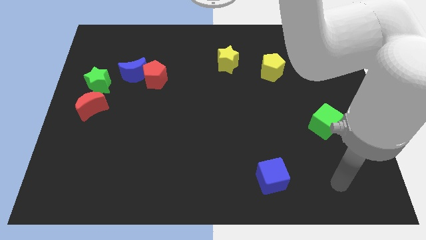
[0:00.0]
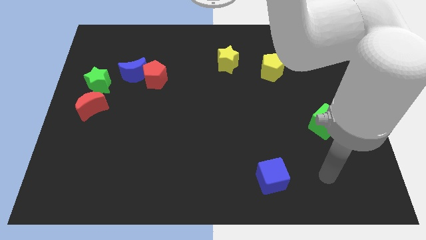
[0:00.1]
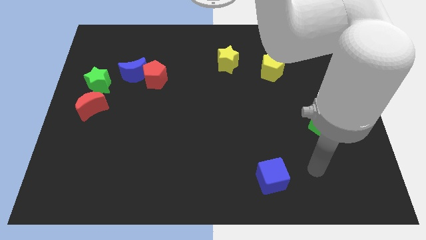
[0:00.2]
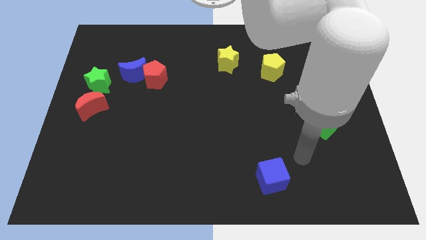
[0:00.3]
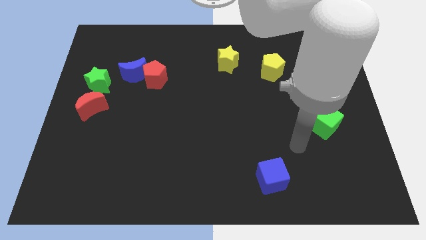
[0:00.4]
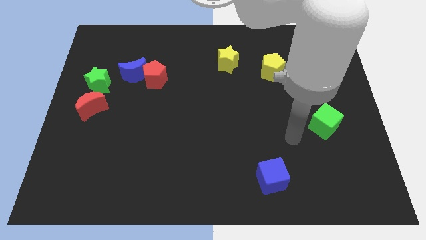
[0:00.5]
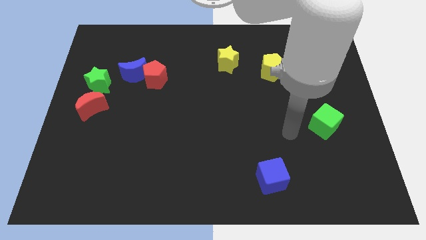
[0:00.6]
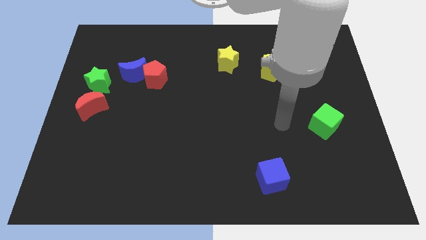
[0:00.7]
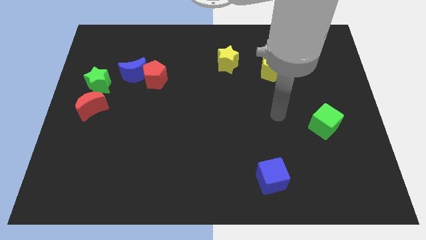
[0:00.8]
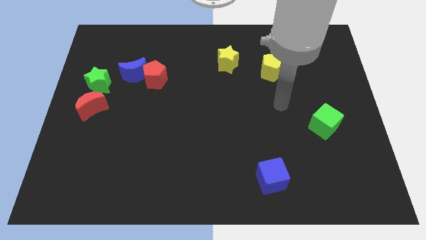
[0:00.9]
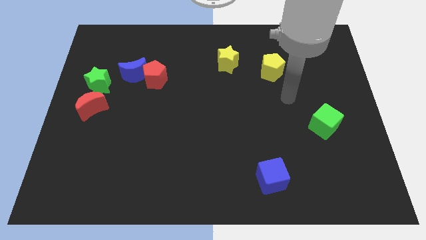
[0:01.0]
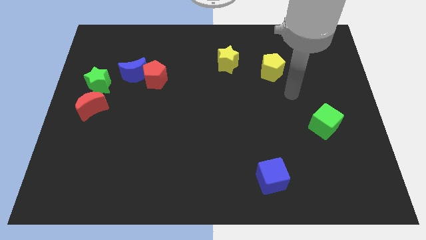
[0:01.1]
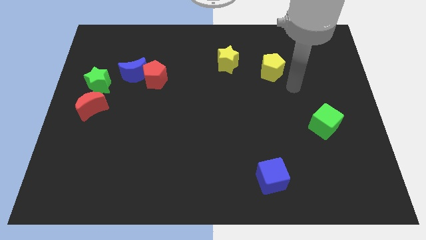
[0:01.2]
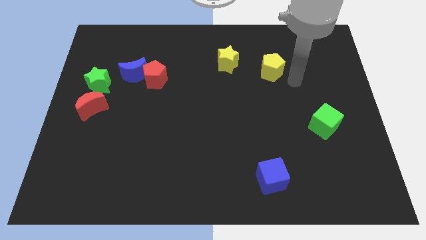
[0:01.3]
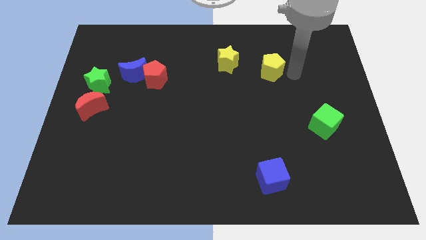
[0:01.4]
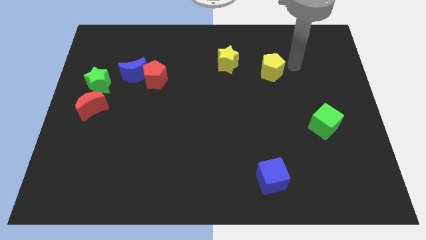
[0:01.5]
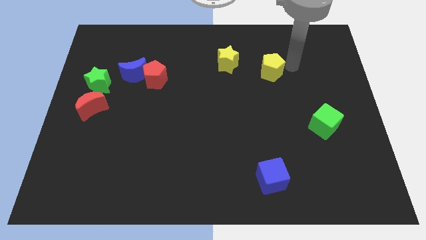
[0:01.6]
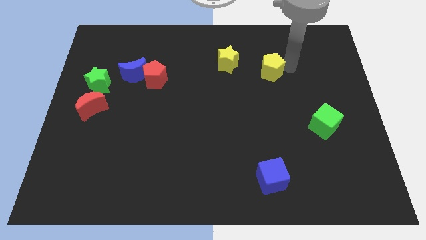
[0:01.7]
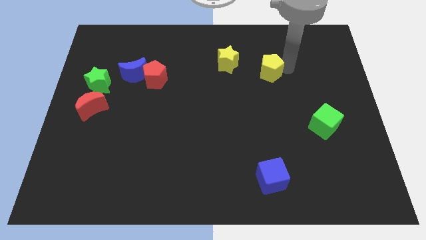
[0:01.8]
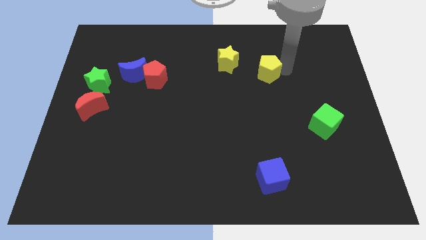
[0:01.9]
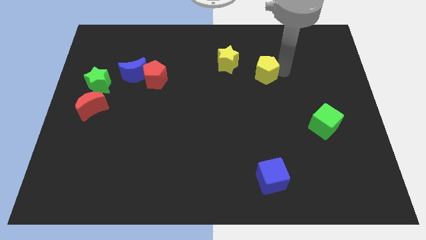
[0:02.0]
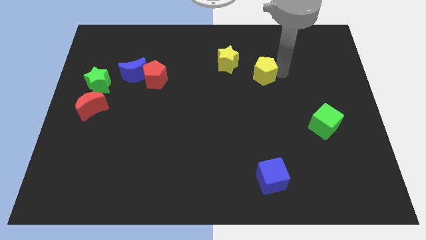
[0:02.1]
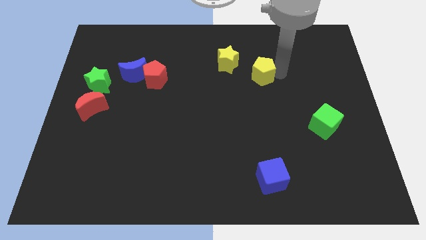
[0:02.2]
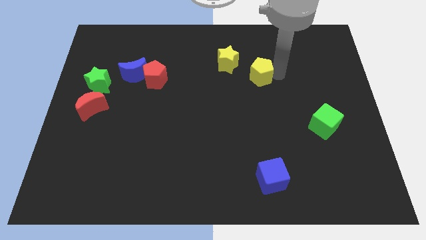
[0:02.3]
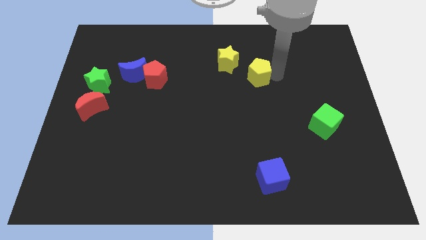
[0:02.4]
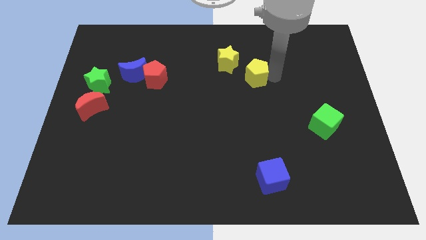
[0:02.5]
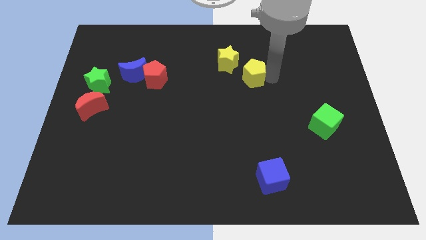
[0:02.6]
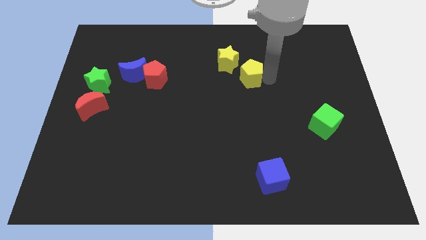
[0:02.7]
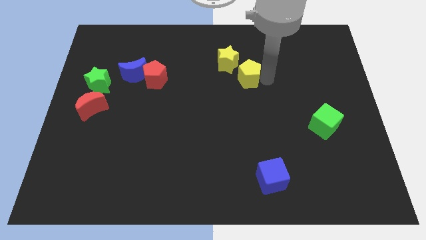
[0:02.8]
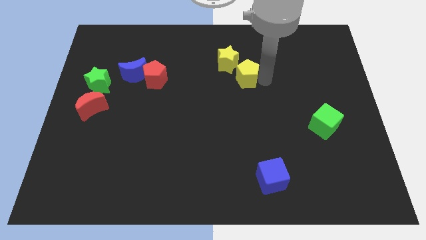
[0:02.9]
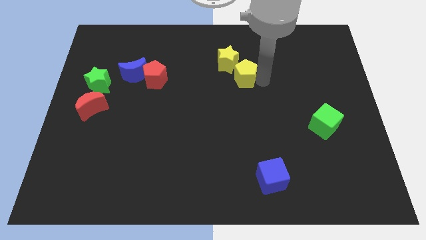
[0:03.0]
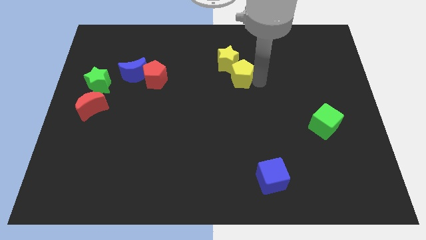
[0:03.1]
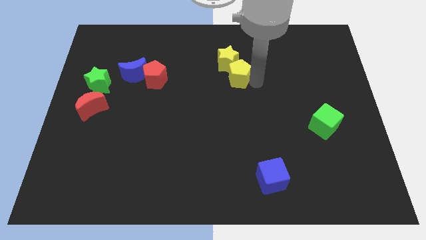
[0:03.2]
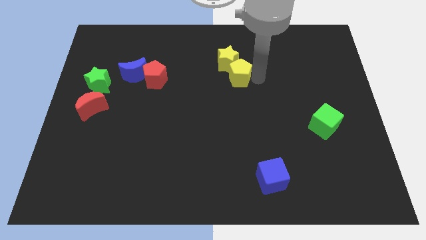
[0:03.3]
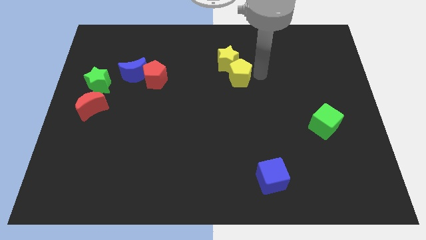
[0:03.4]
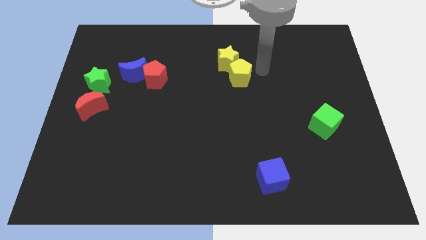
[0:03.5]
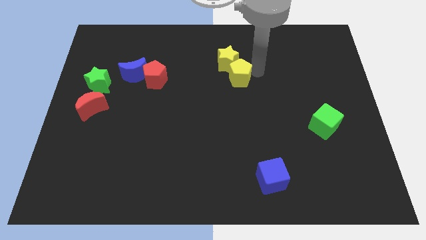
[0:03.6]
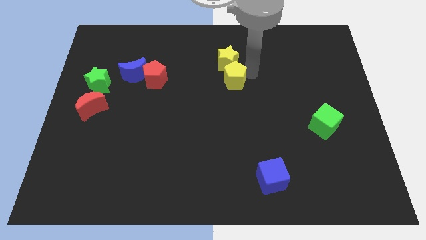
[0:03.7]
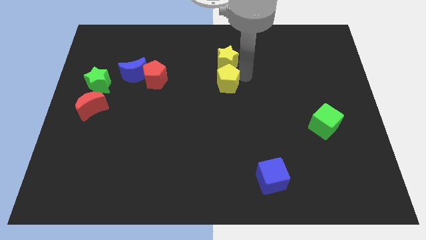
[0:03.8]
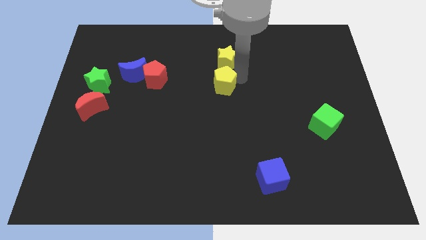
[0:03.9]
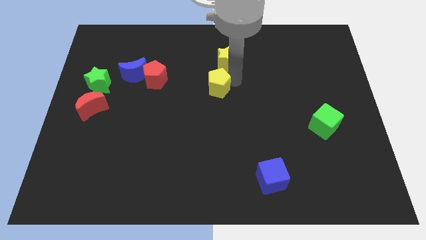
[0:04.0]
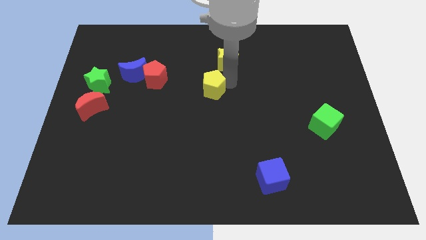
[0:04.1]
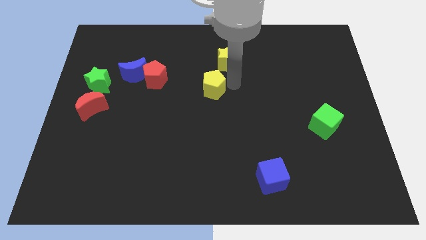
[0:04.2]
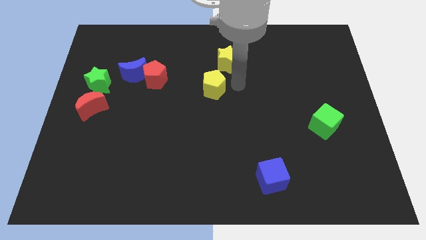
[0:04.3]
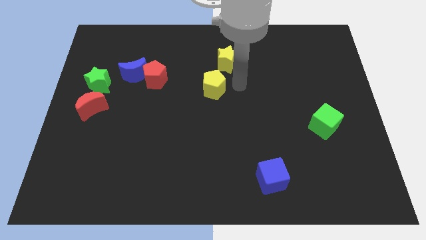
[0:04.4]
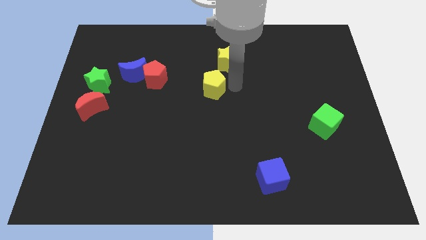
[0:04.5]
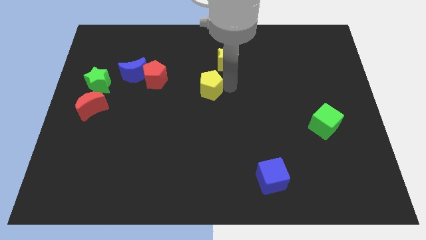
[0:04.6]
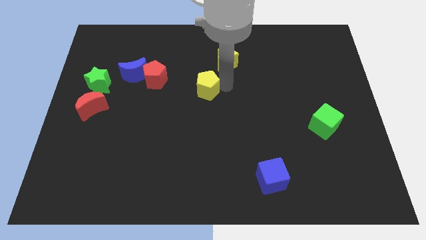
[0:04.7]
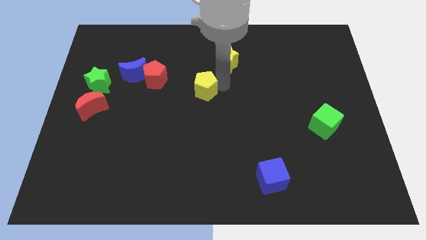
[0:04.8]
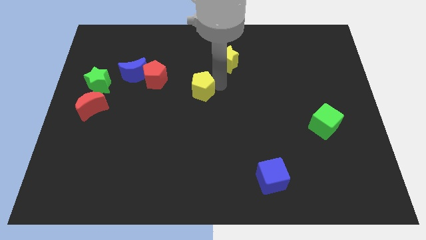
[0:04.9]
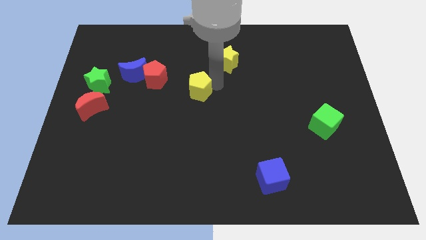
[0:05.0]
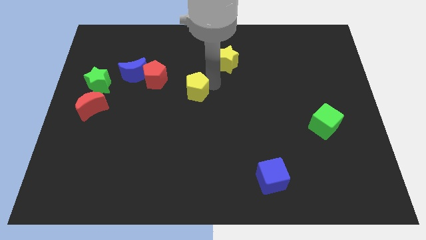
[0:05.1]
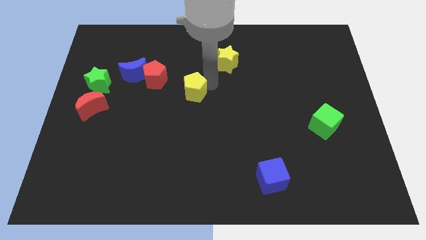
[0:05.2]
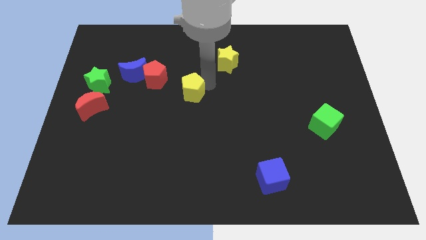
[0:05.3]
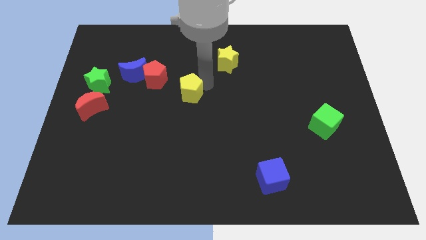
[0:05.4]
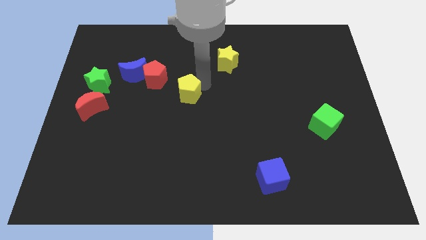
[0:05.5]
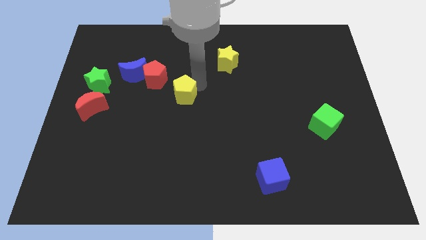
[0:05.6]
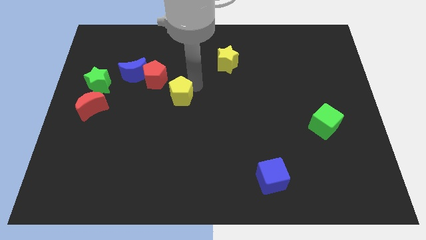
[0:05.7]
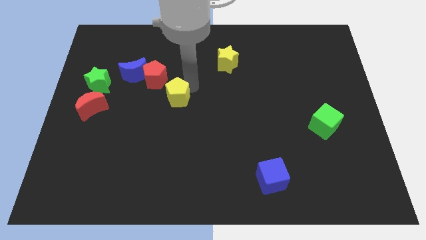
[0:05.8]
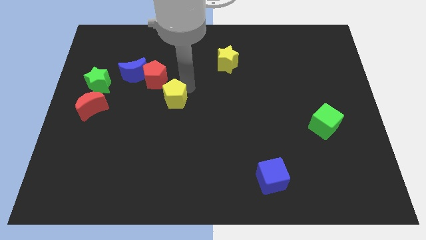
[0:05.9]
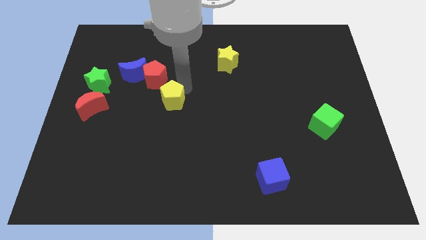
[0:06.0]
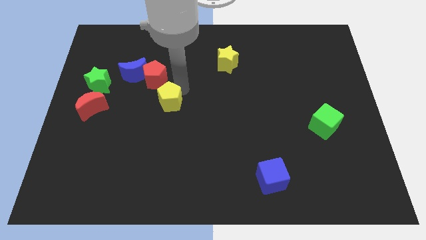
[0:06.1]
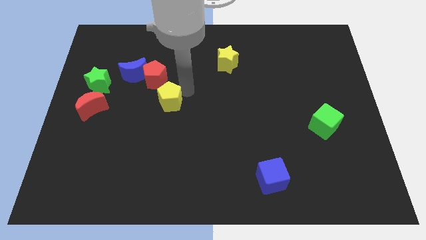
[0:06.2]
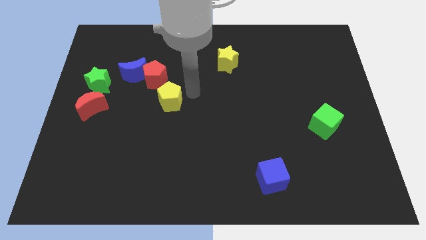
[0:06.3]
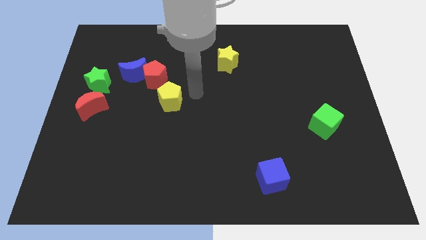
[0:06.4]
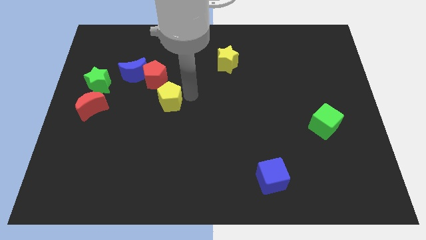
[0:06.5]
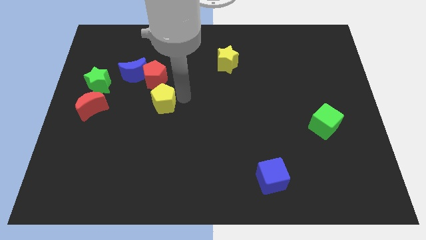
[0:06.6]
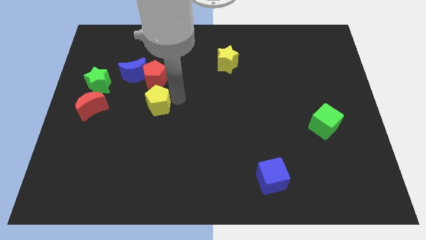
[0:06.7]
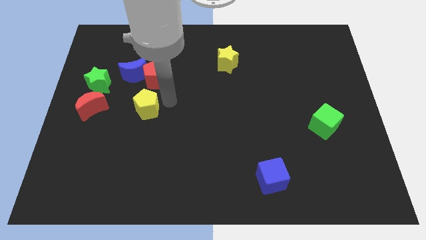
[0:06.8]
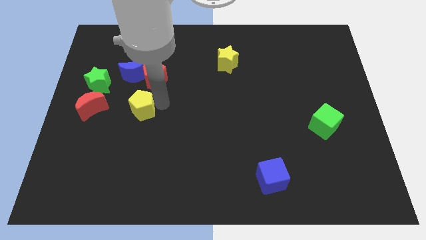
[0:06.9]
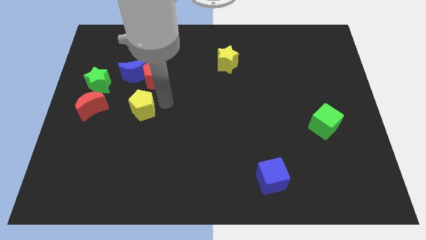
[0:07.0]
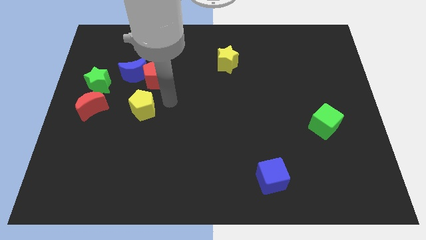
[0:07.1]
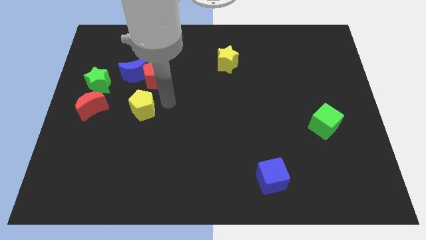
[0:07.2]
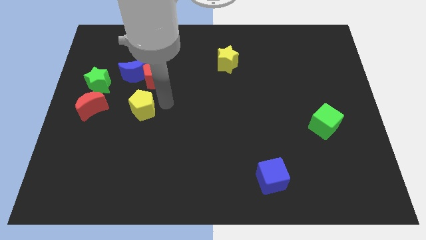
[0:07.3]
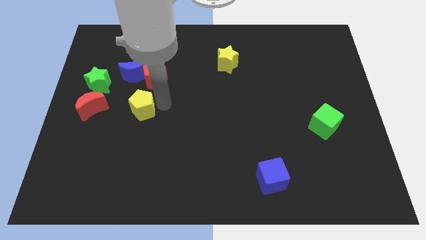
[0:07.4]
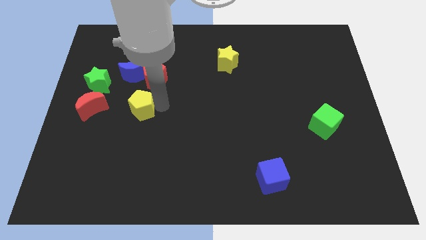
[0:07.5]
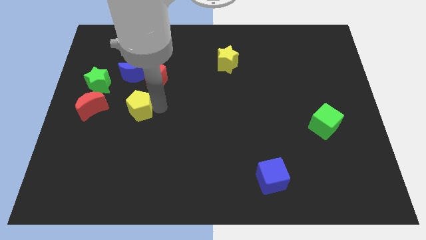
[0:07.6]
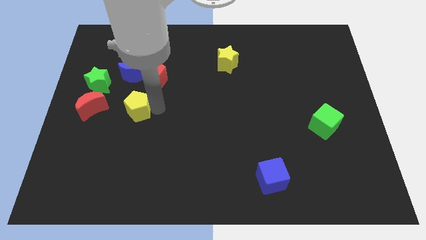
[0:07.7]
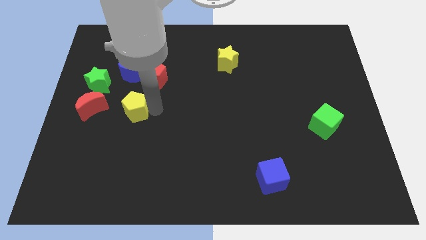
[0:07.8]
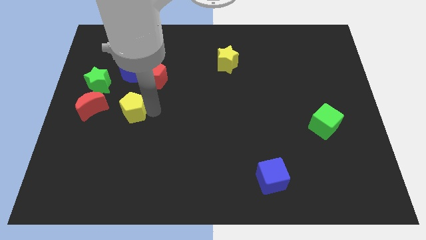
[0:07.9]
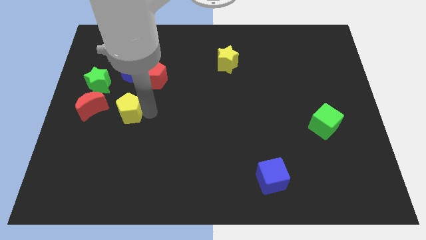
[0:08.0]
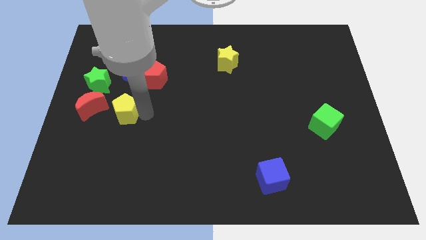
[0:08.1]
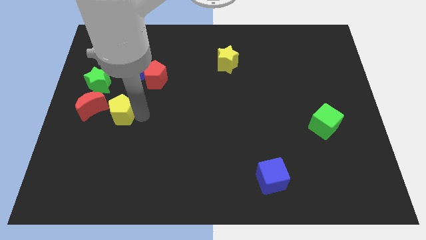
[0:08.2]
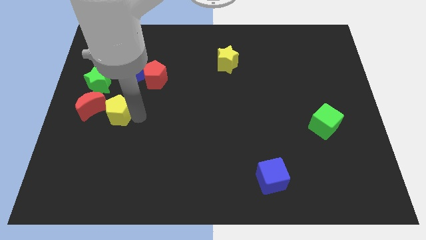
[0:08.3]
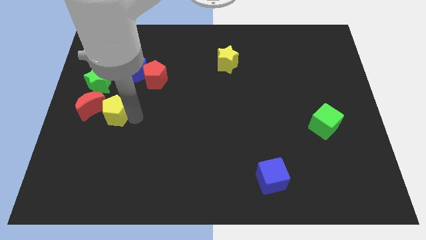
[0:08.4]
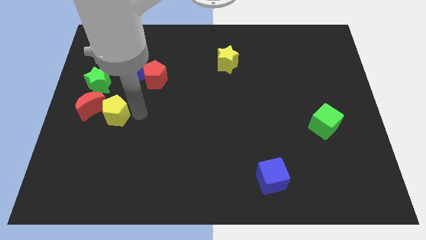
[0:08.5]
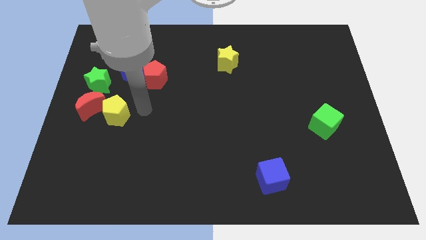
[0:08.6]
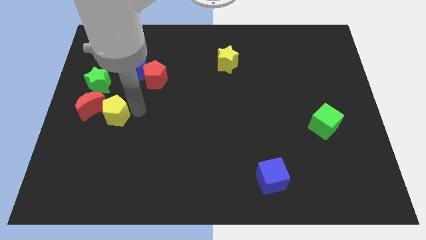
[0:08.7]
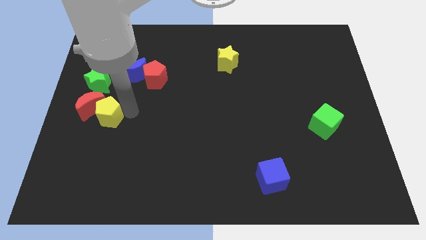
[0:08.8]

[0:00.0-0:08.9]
move the yellow pentagon below the green star
